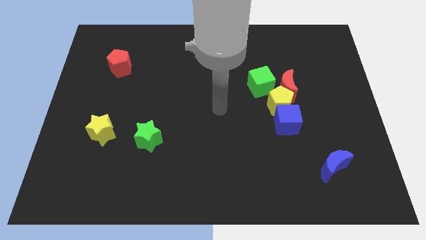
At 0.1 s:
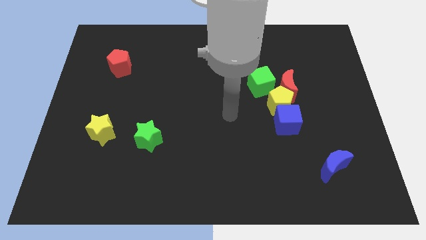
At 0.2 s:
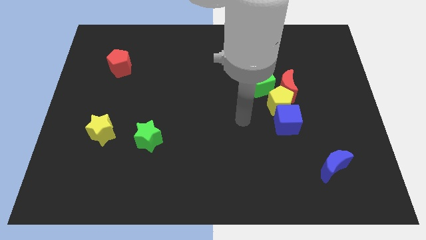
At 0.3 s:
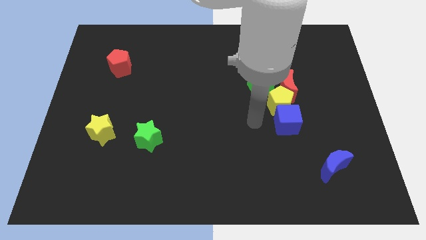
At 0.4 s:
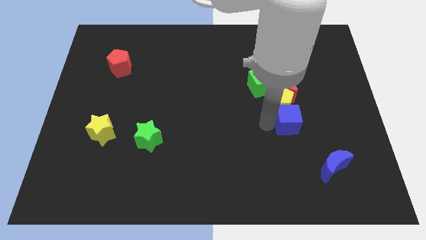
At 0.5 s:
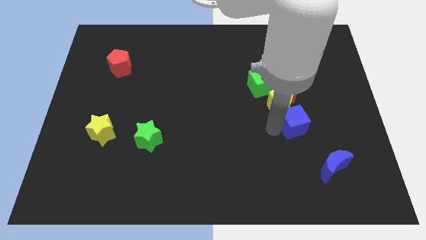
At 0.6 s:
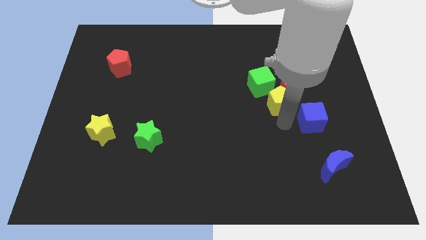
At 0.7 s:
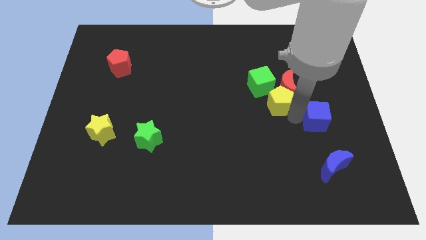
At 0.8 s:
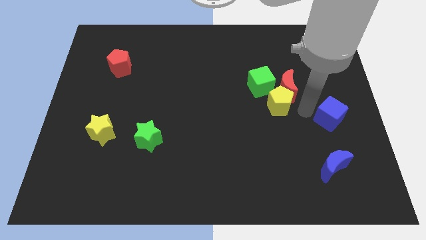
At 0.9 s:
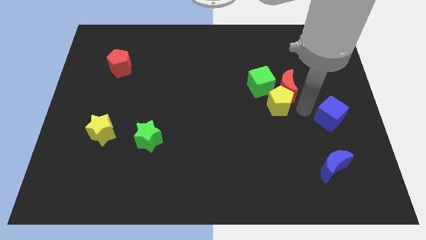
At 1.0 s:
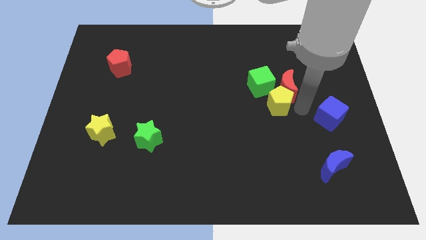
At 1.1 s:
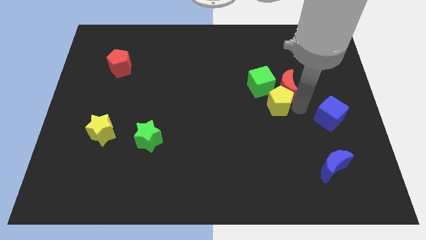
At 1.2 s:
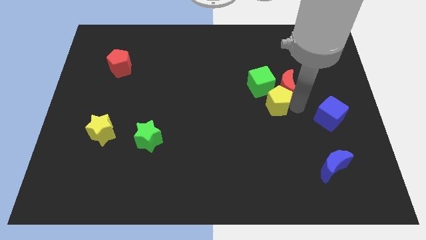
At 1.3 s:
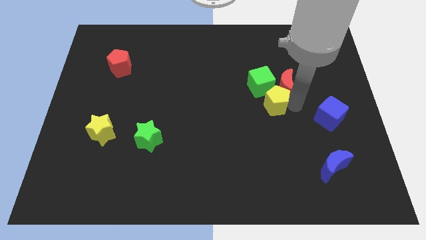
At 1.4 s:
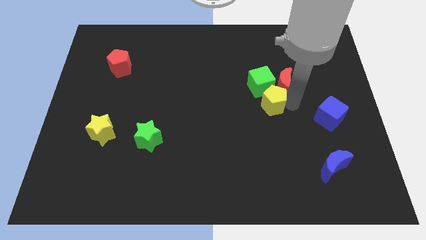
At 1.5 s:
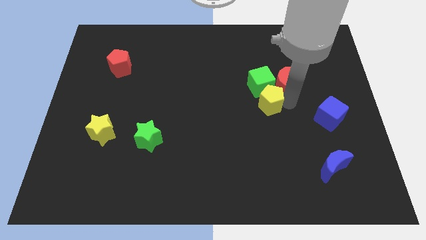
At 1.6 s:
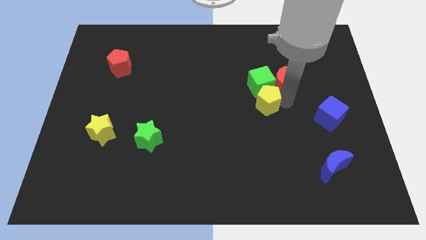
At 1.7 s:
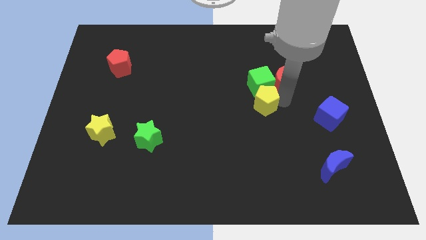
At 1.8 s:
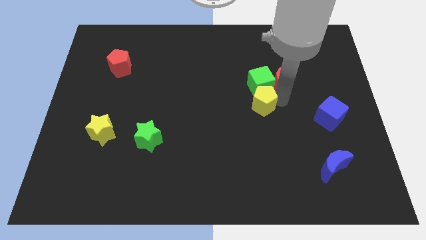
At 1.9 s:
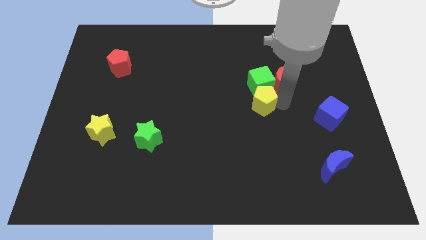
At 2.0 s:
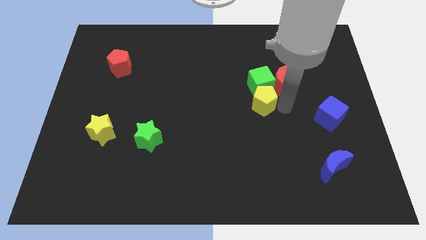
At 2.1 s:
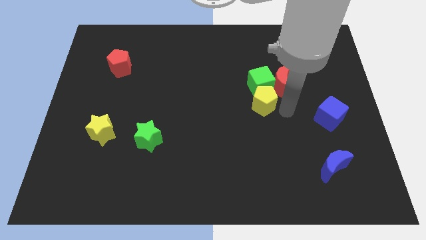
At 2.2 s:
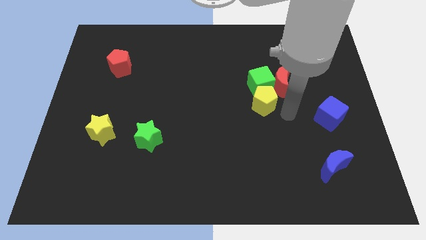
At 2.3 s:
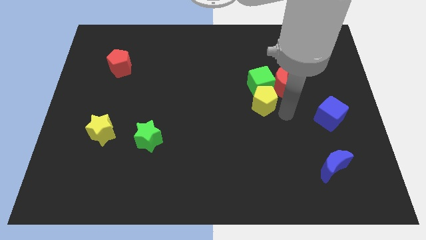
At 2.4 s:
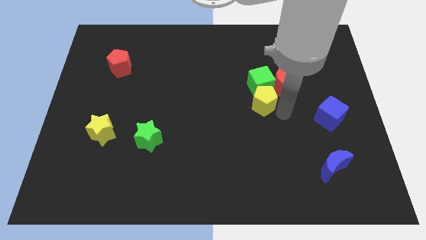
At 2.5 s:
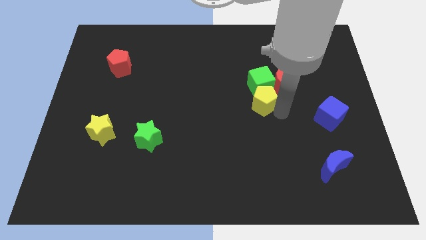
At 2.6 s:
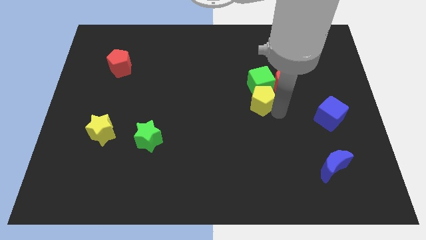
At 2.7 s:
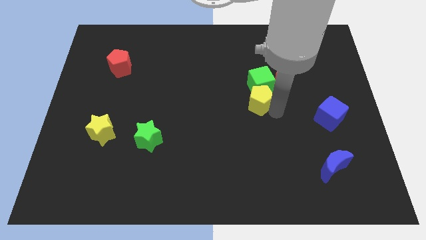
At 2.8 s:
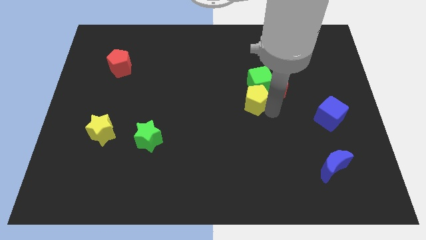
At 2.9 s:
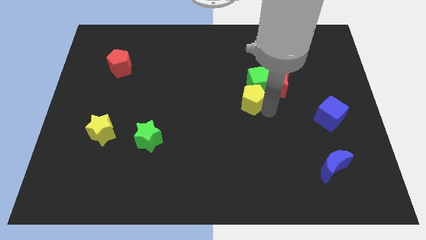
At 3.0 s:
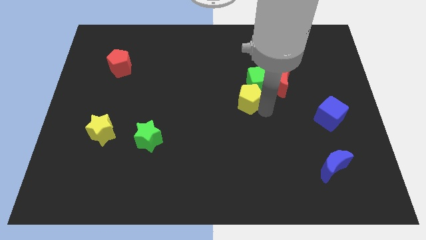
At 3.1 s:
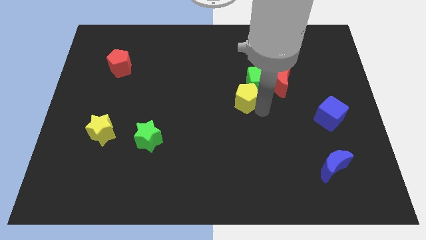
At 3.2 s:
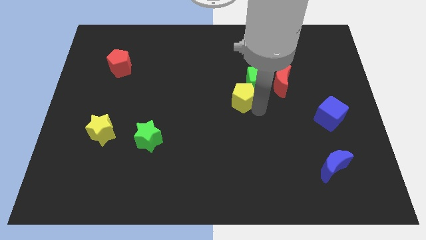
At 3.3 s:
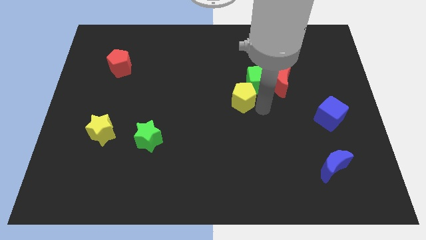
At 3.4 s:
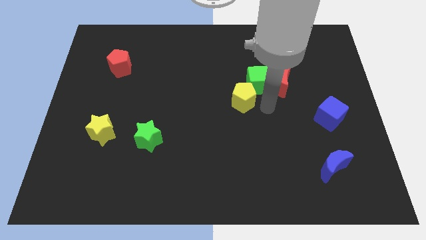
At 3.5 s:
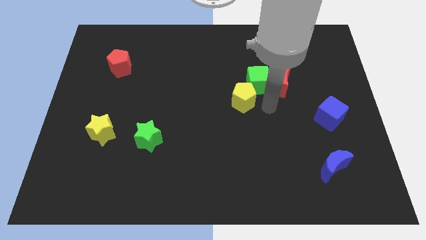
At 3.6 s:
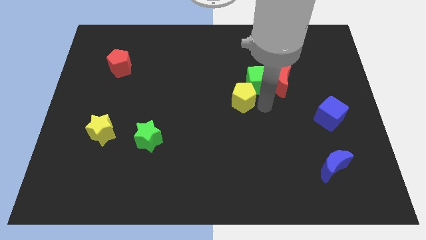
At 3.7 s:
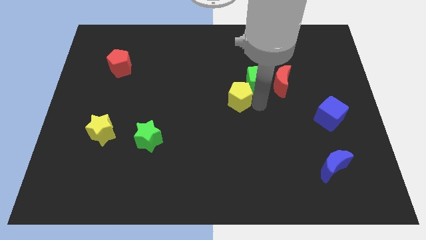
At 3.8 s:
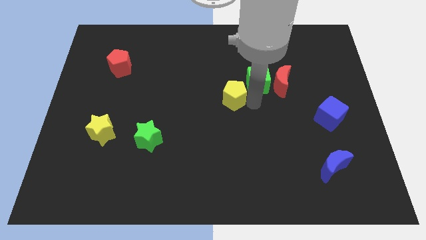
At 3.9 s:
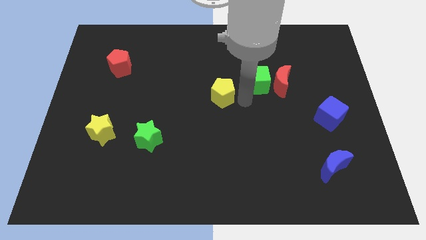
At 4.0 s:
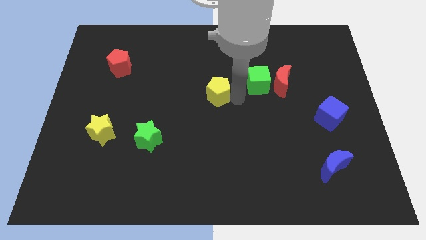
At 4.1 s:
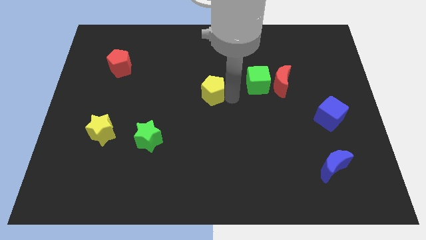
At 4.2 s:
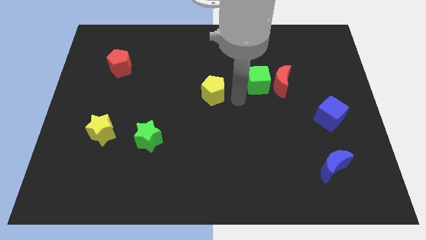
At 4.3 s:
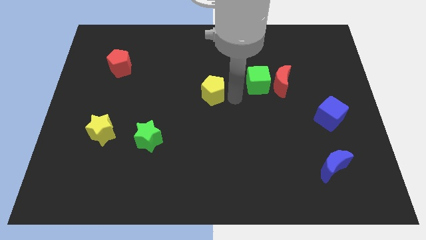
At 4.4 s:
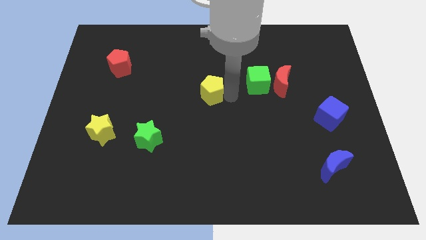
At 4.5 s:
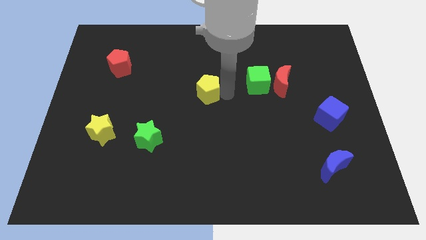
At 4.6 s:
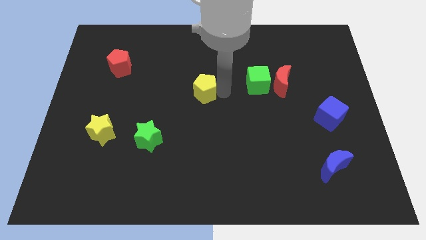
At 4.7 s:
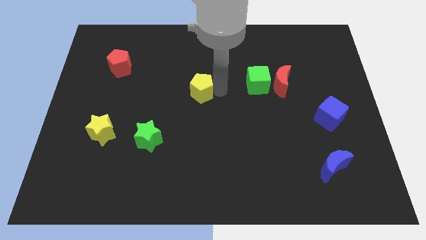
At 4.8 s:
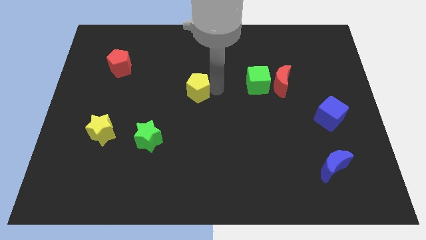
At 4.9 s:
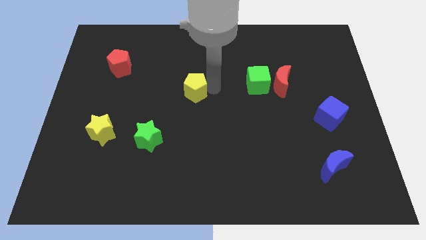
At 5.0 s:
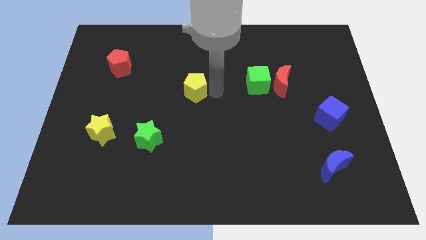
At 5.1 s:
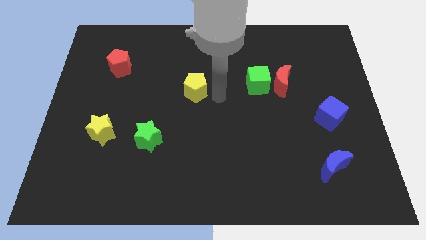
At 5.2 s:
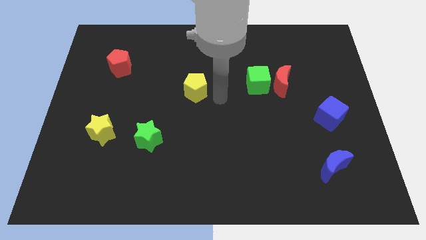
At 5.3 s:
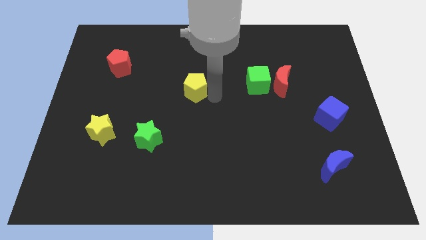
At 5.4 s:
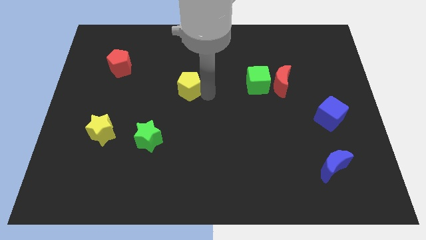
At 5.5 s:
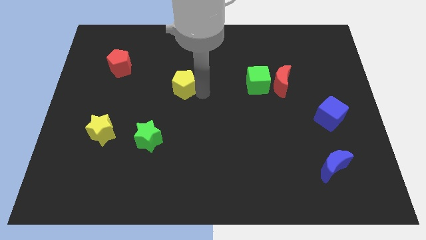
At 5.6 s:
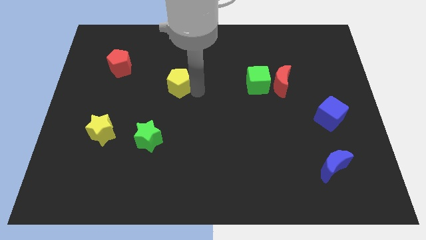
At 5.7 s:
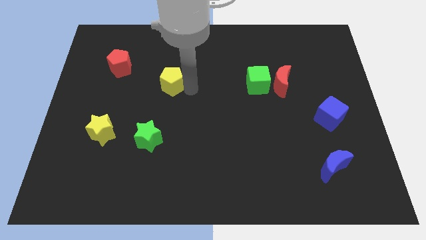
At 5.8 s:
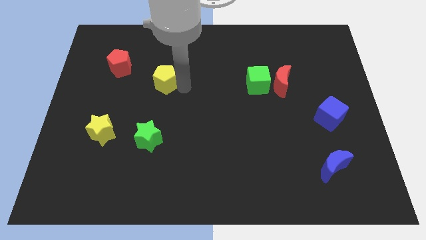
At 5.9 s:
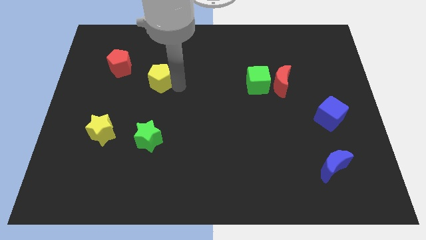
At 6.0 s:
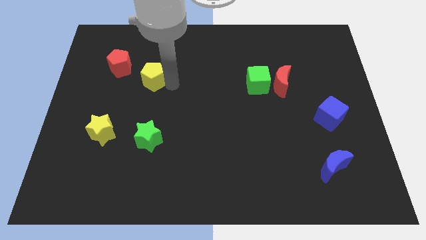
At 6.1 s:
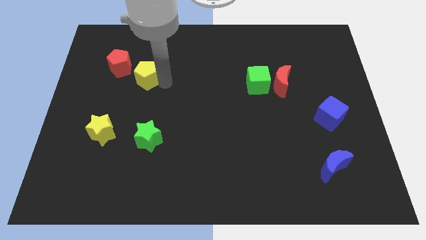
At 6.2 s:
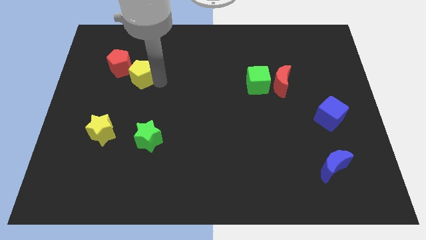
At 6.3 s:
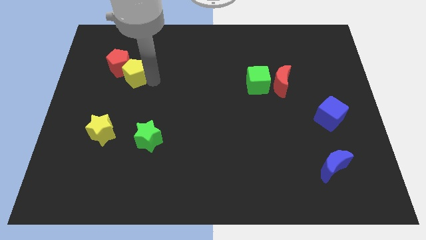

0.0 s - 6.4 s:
push the yellow pentagon towards the red pentagon

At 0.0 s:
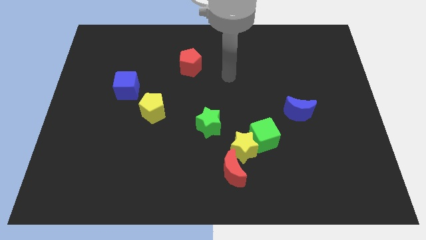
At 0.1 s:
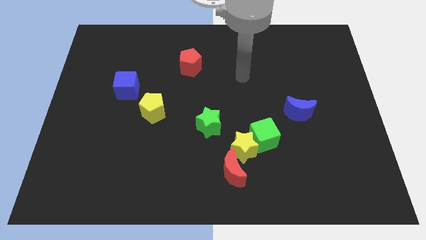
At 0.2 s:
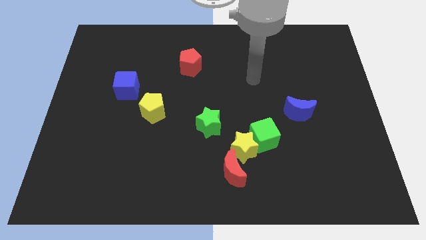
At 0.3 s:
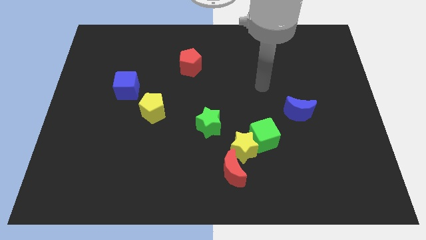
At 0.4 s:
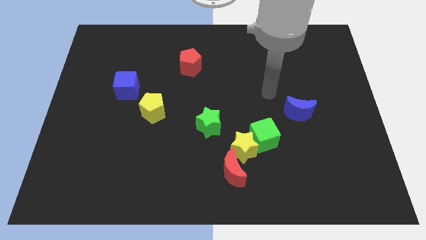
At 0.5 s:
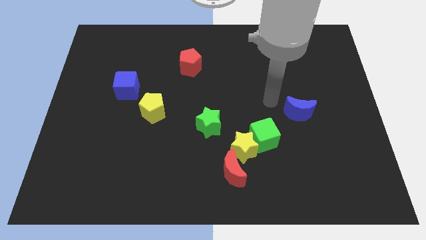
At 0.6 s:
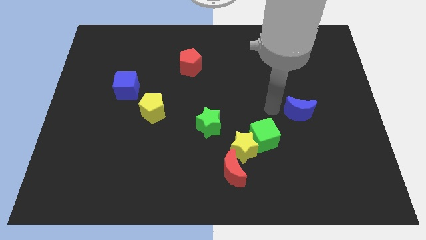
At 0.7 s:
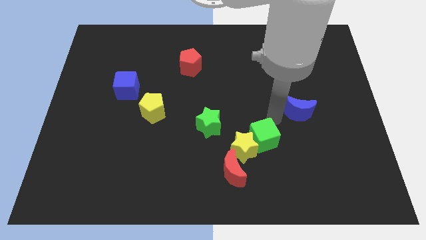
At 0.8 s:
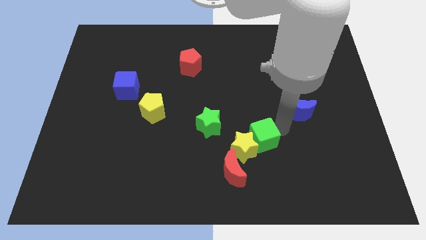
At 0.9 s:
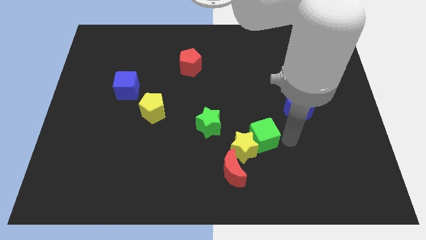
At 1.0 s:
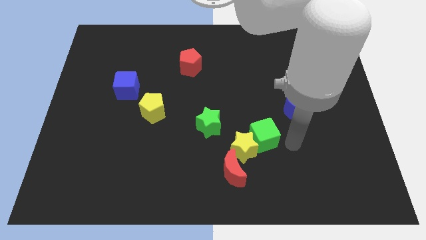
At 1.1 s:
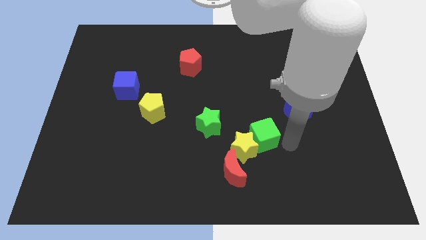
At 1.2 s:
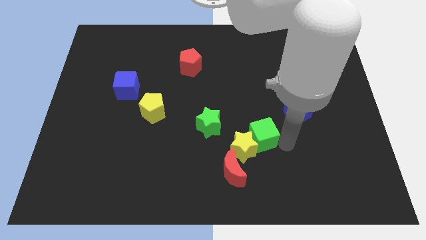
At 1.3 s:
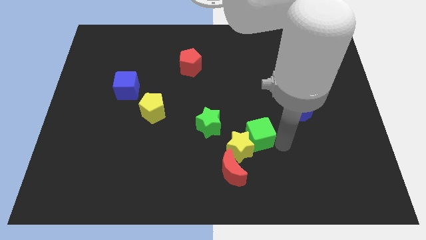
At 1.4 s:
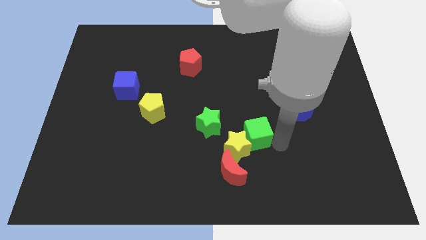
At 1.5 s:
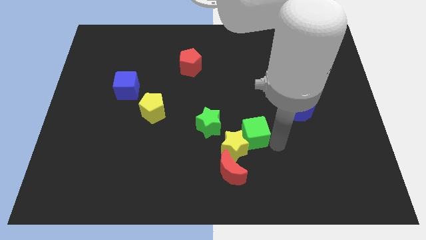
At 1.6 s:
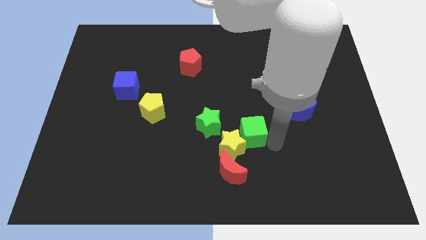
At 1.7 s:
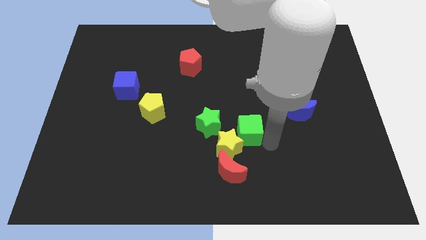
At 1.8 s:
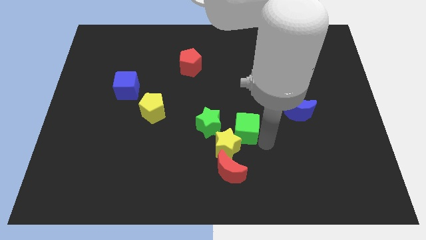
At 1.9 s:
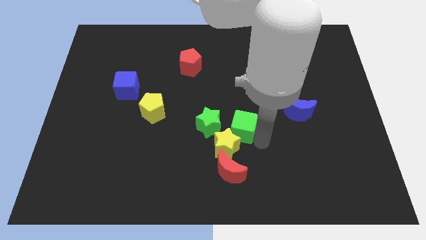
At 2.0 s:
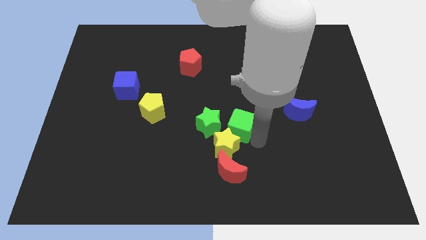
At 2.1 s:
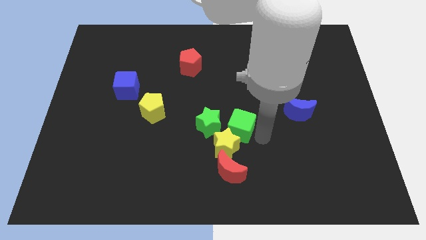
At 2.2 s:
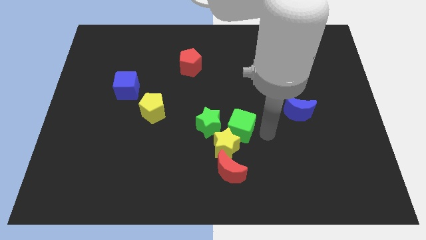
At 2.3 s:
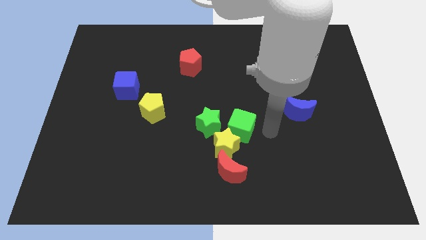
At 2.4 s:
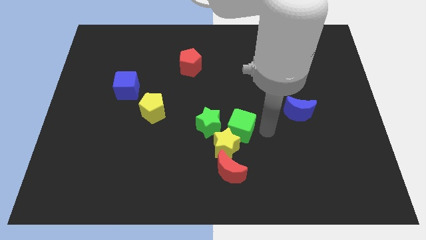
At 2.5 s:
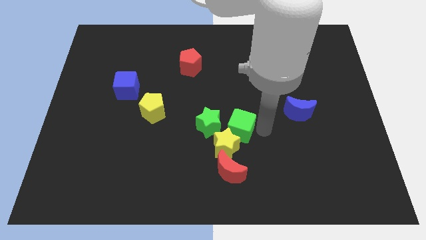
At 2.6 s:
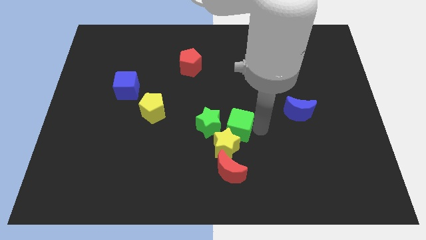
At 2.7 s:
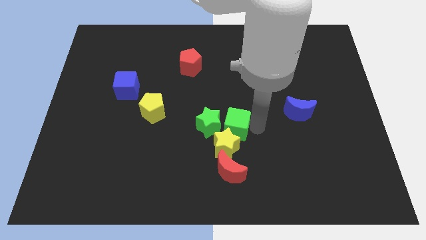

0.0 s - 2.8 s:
push the green cube close to the green star
